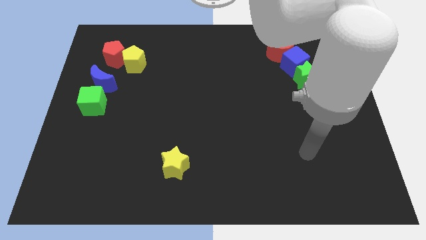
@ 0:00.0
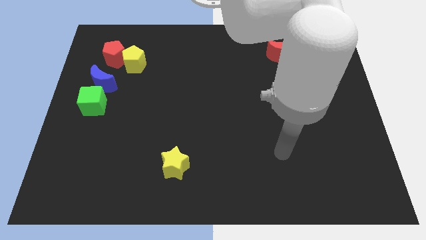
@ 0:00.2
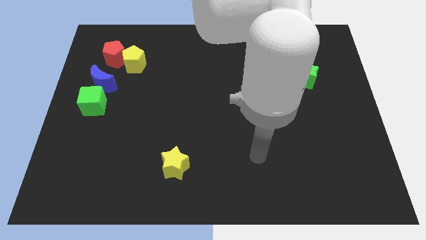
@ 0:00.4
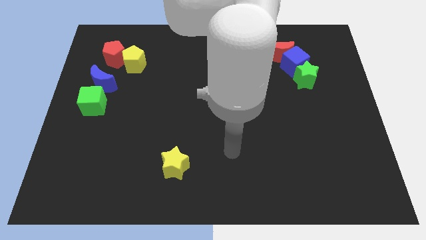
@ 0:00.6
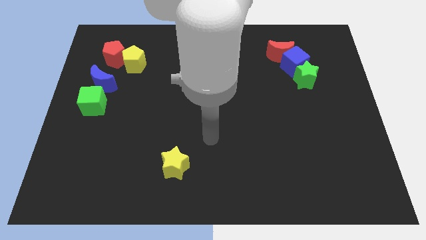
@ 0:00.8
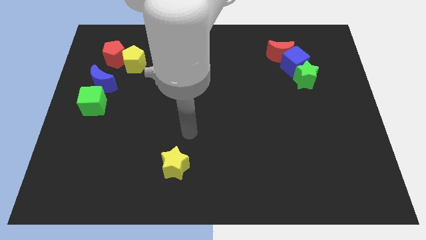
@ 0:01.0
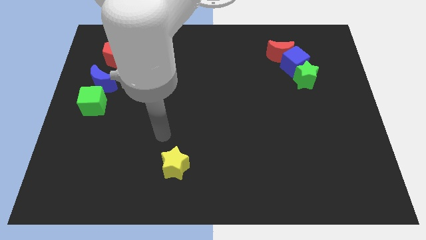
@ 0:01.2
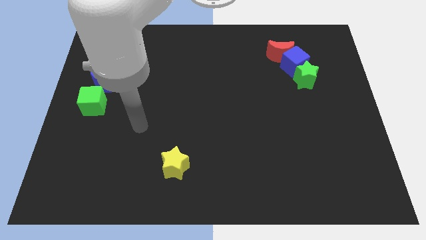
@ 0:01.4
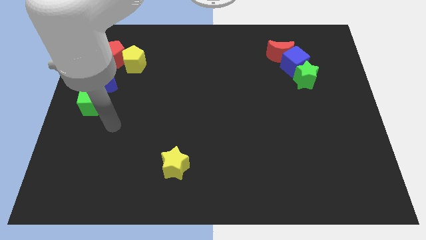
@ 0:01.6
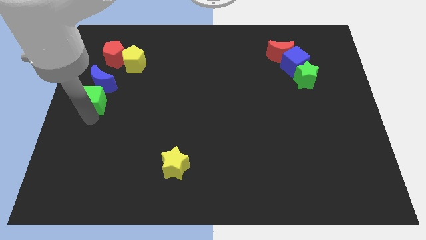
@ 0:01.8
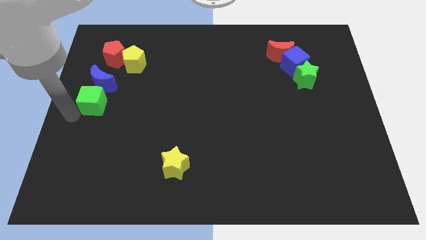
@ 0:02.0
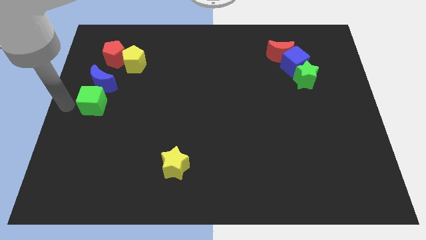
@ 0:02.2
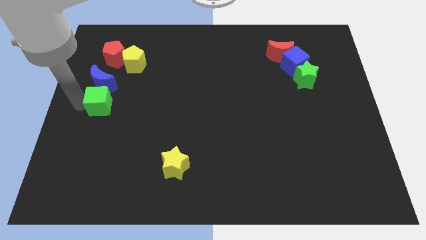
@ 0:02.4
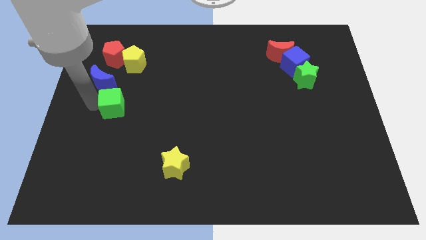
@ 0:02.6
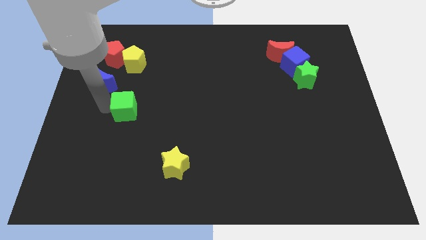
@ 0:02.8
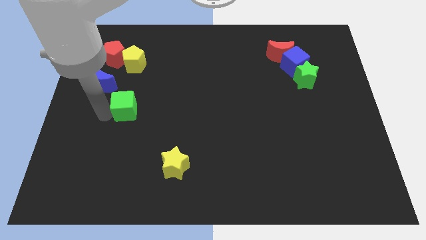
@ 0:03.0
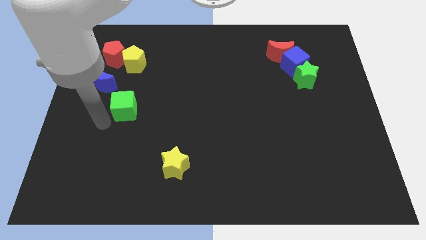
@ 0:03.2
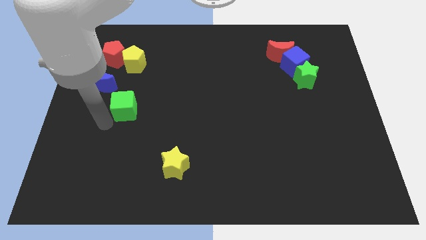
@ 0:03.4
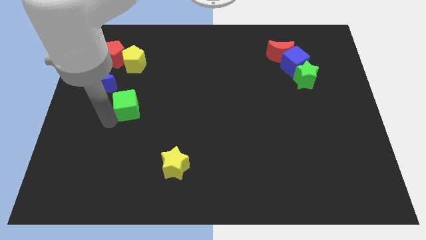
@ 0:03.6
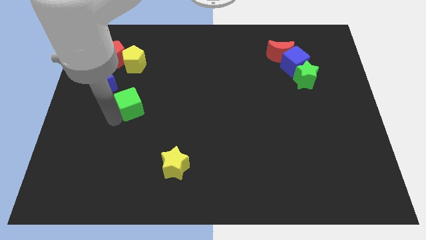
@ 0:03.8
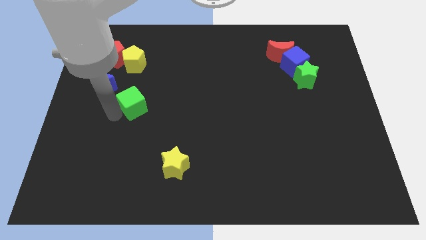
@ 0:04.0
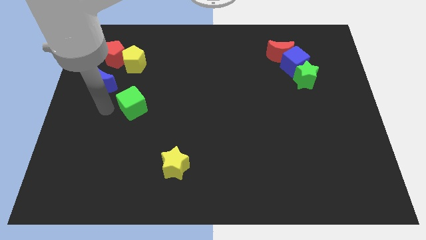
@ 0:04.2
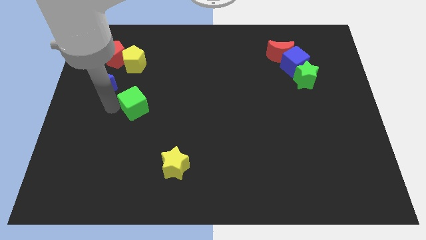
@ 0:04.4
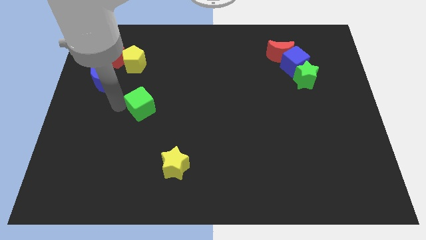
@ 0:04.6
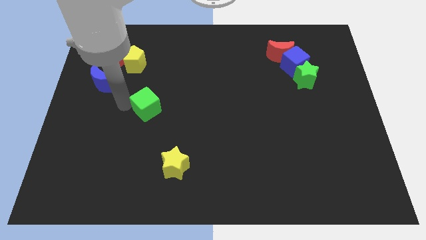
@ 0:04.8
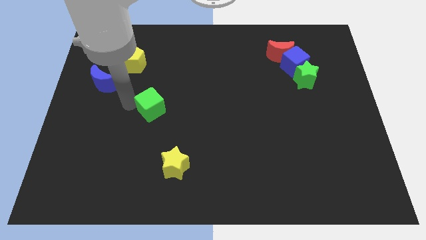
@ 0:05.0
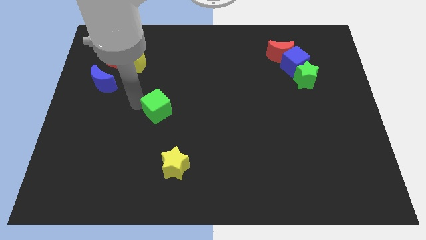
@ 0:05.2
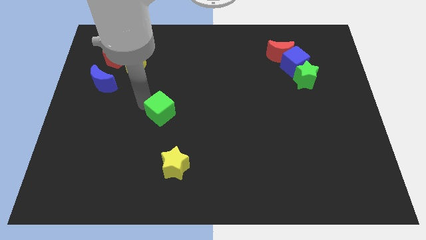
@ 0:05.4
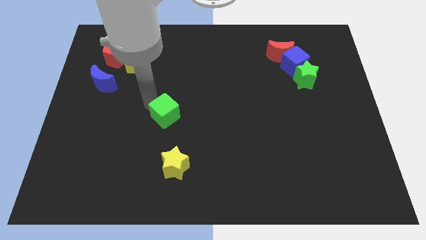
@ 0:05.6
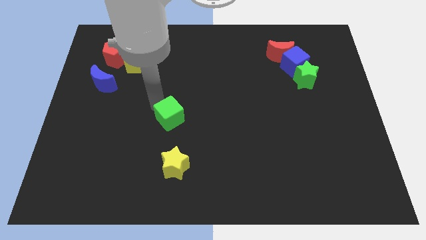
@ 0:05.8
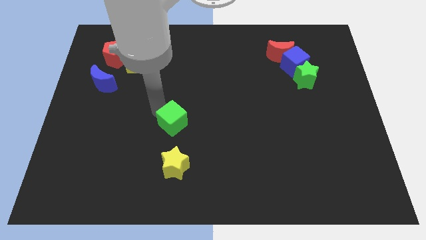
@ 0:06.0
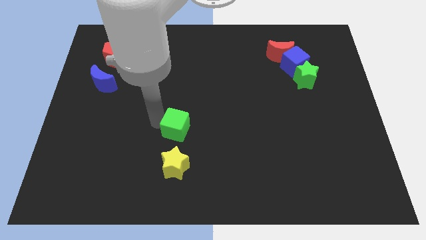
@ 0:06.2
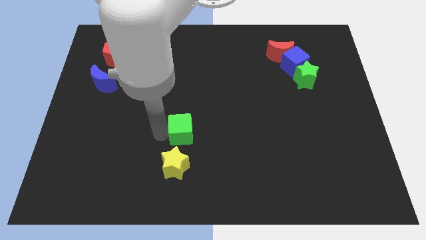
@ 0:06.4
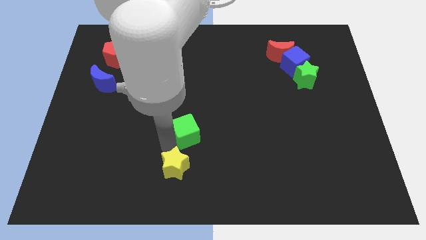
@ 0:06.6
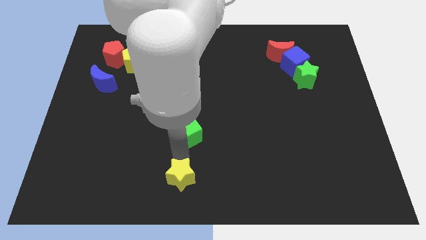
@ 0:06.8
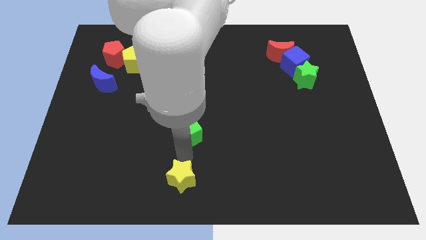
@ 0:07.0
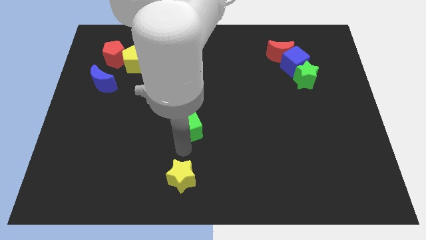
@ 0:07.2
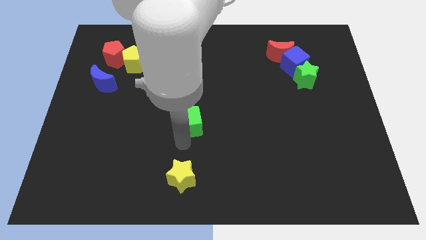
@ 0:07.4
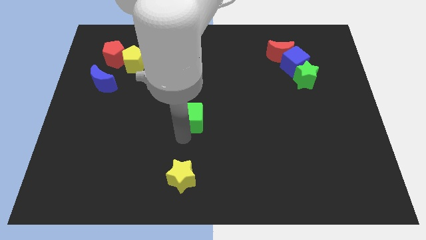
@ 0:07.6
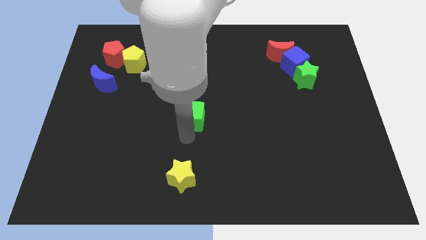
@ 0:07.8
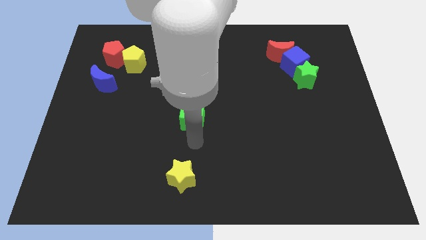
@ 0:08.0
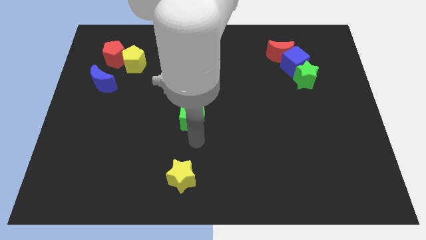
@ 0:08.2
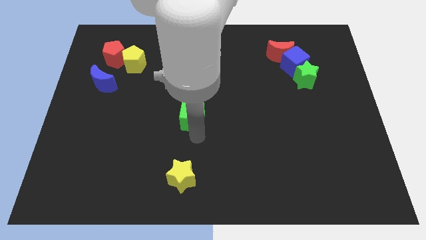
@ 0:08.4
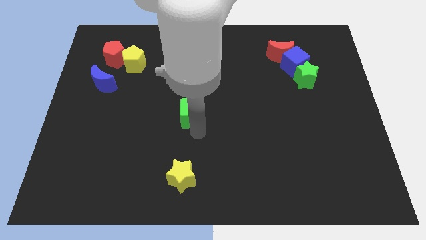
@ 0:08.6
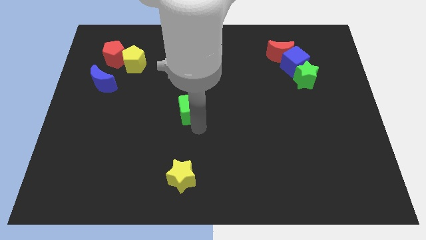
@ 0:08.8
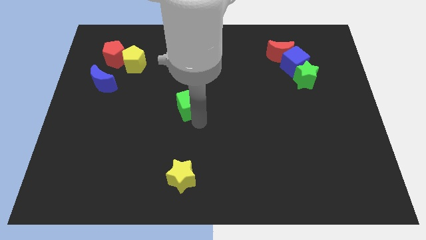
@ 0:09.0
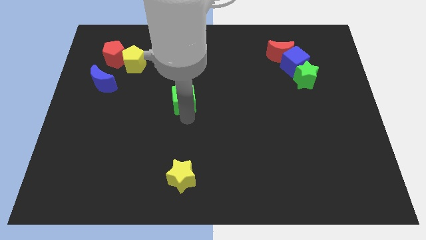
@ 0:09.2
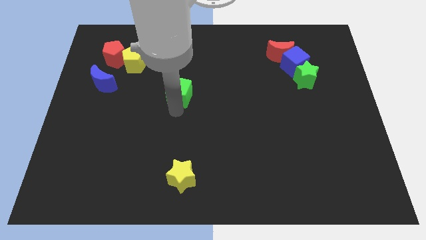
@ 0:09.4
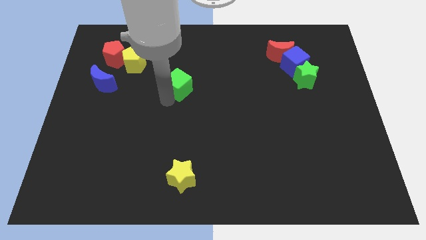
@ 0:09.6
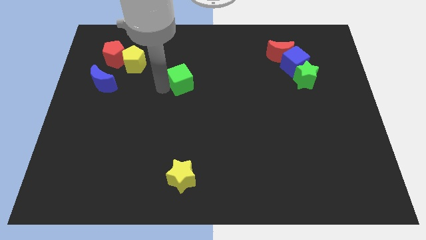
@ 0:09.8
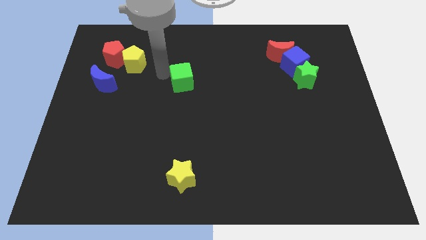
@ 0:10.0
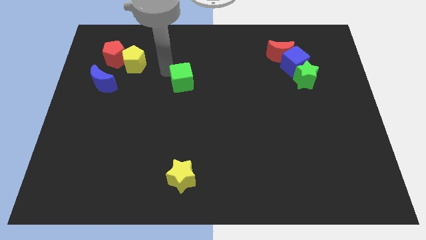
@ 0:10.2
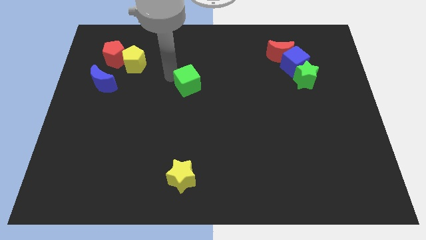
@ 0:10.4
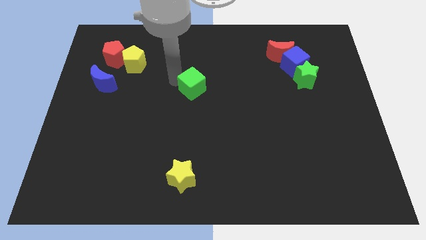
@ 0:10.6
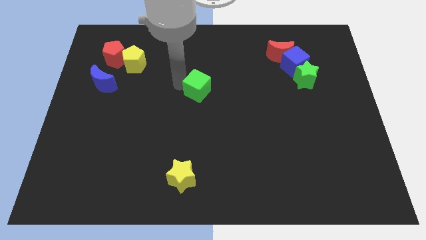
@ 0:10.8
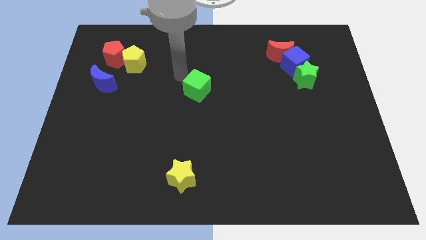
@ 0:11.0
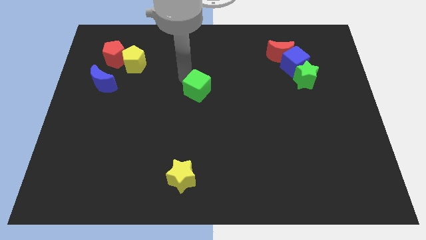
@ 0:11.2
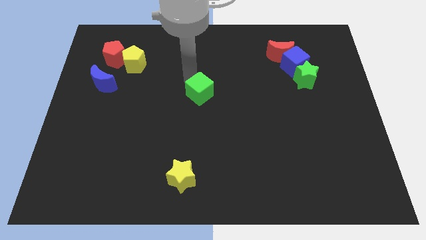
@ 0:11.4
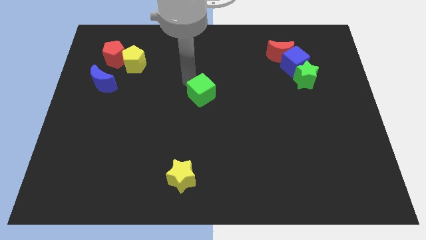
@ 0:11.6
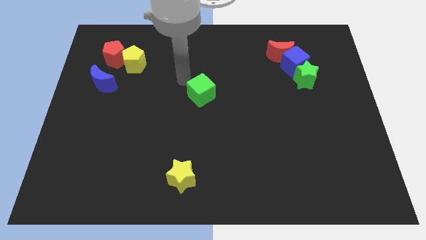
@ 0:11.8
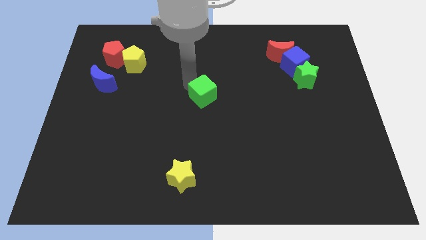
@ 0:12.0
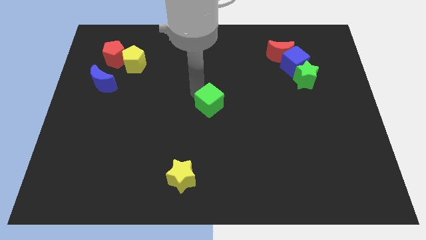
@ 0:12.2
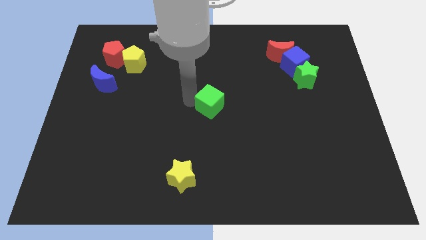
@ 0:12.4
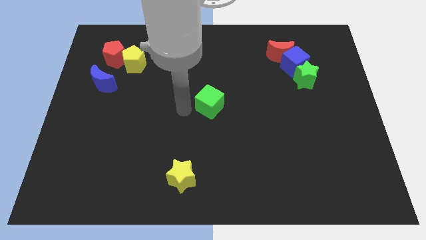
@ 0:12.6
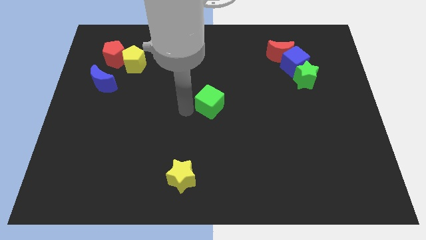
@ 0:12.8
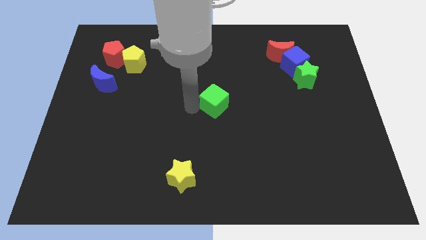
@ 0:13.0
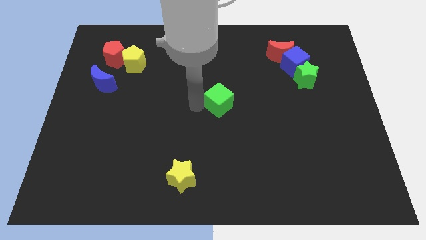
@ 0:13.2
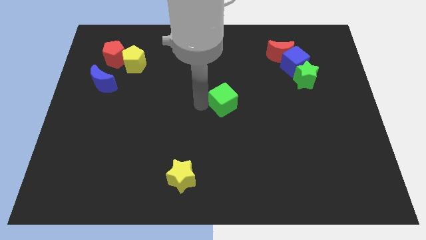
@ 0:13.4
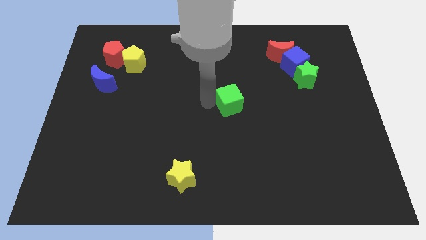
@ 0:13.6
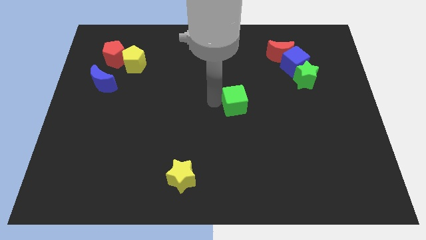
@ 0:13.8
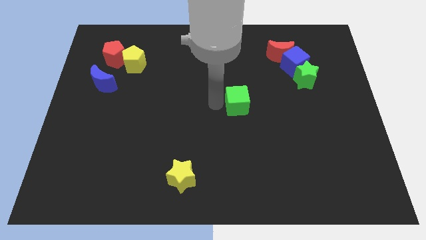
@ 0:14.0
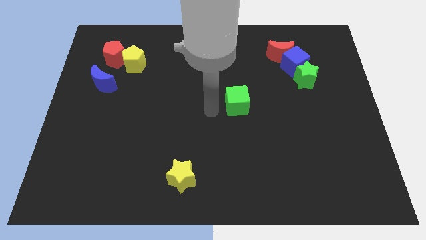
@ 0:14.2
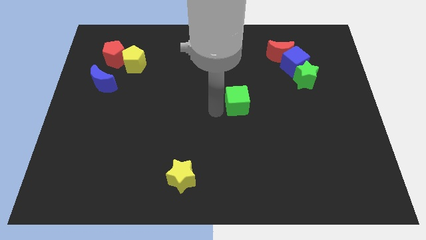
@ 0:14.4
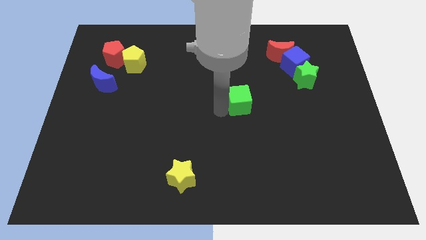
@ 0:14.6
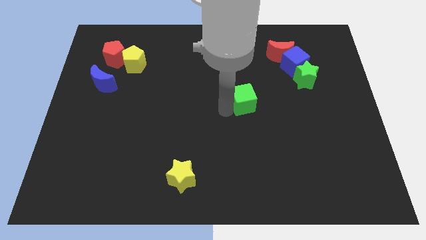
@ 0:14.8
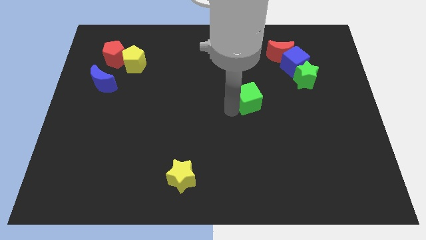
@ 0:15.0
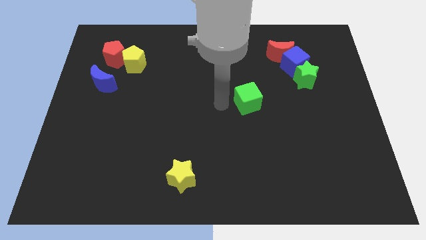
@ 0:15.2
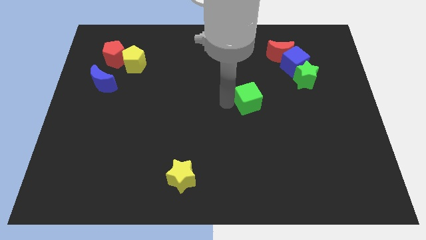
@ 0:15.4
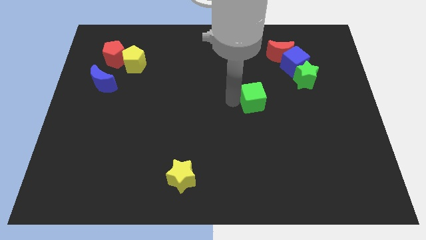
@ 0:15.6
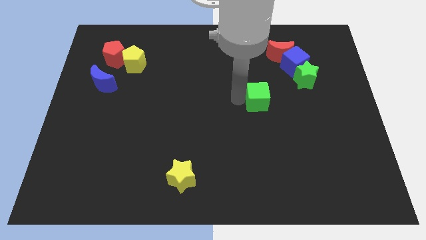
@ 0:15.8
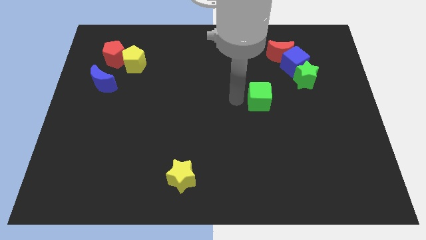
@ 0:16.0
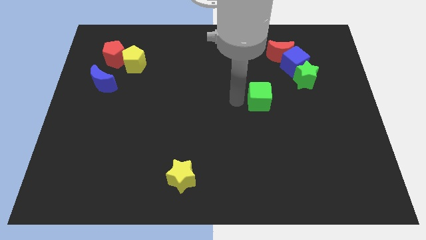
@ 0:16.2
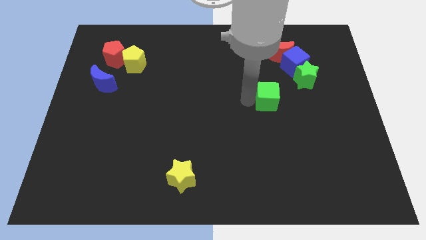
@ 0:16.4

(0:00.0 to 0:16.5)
move the green cube diagonally down and to the left of the green star
